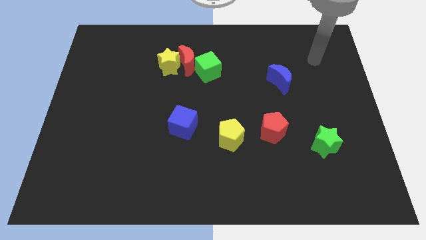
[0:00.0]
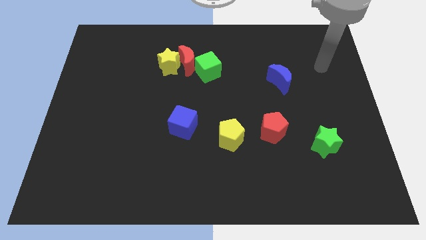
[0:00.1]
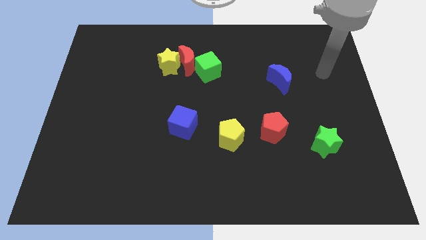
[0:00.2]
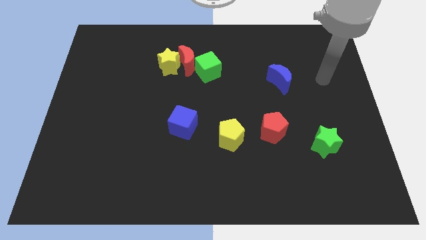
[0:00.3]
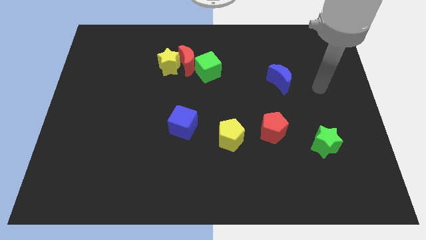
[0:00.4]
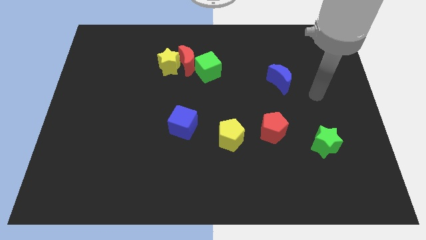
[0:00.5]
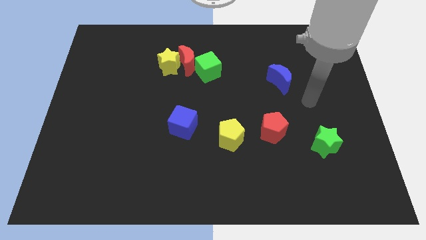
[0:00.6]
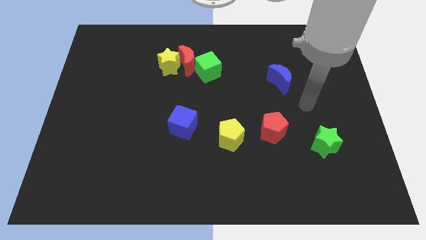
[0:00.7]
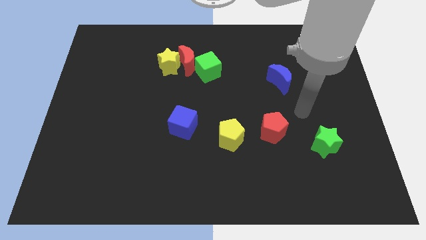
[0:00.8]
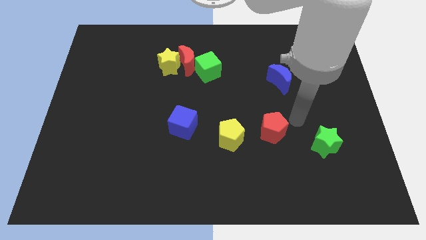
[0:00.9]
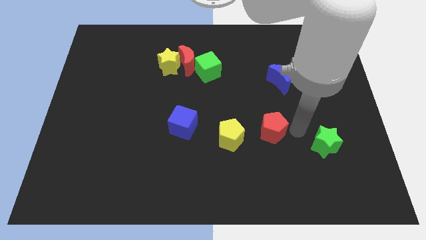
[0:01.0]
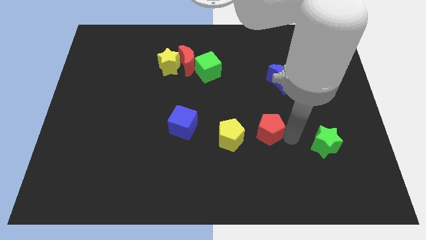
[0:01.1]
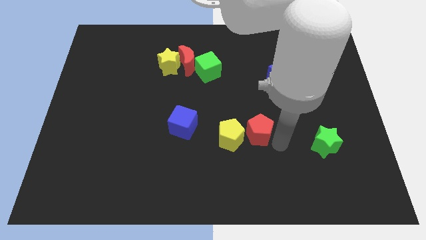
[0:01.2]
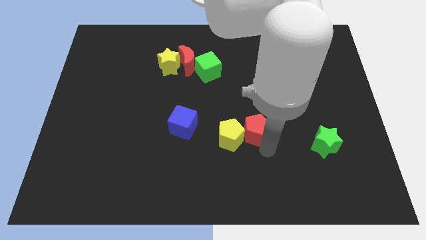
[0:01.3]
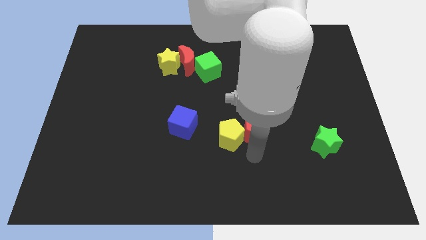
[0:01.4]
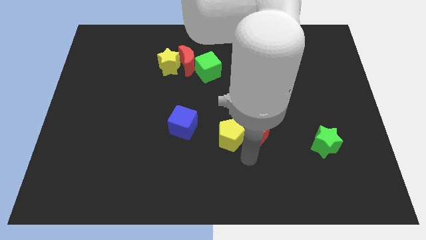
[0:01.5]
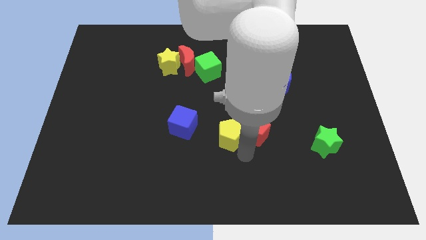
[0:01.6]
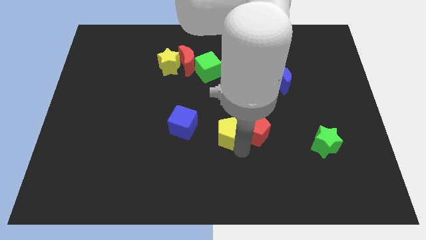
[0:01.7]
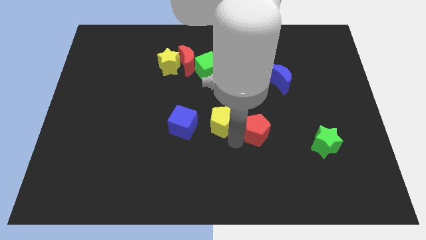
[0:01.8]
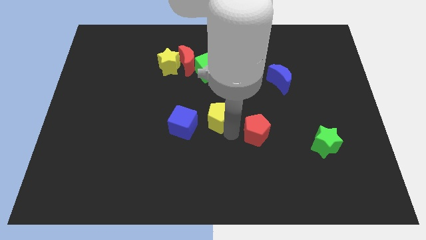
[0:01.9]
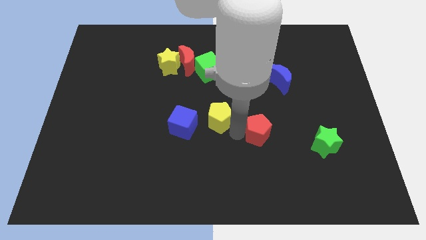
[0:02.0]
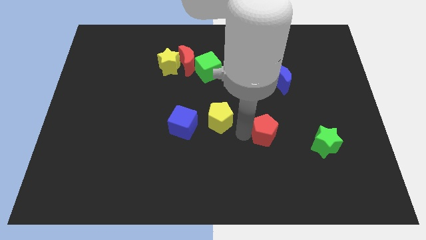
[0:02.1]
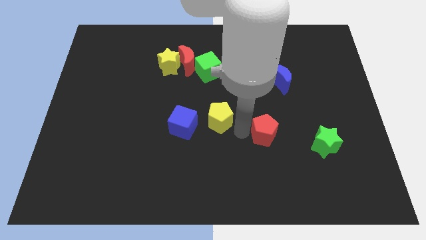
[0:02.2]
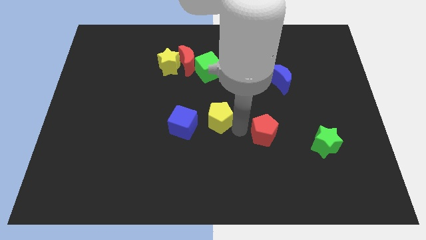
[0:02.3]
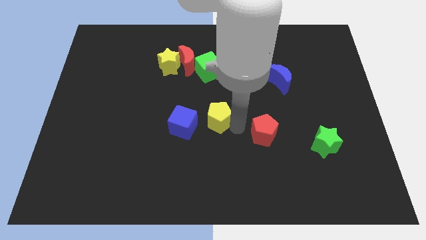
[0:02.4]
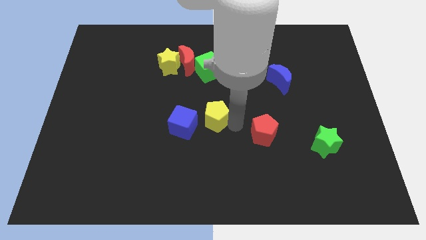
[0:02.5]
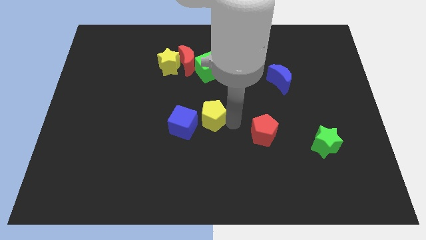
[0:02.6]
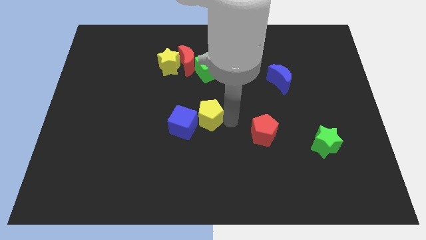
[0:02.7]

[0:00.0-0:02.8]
push the yellow pentagon diagonally up and left slightly

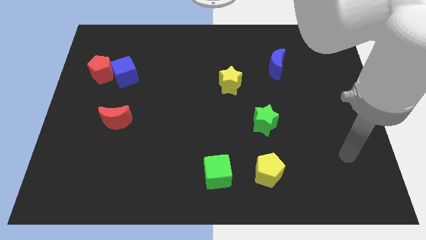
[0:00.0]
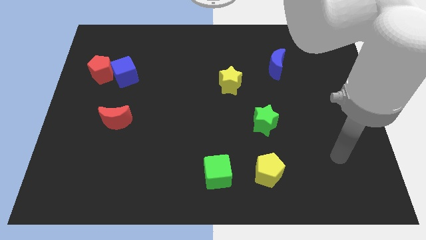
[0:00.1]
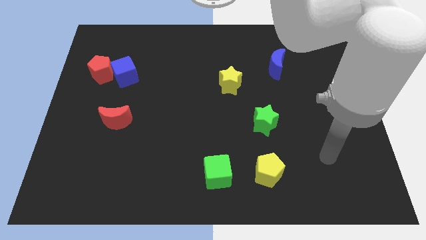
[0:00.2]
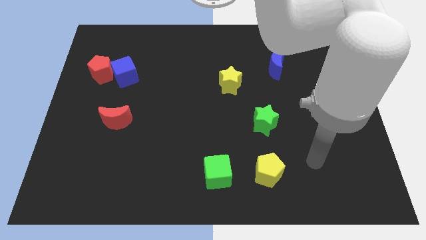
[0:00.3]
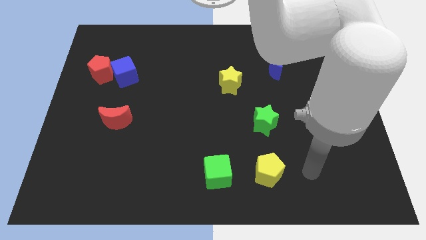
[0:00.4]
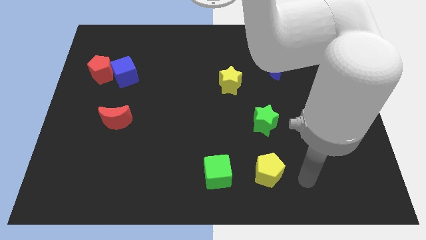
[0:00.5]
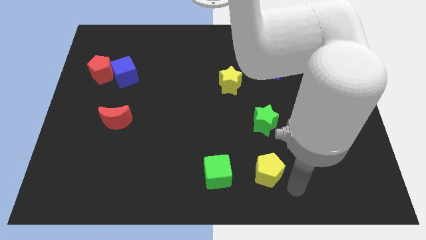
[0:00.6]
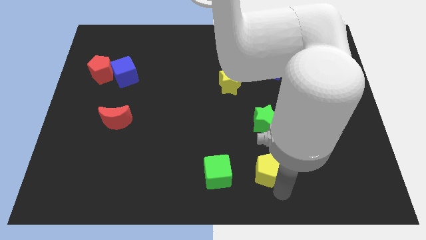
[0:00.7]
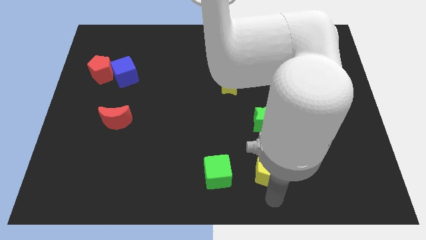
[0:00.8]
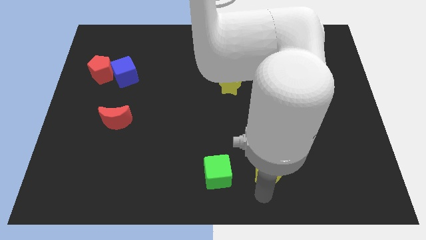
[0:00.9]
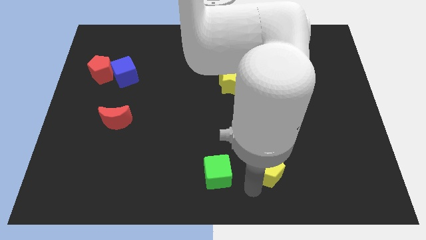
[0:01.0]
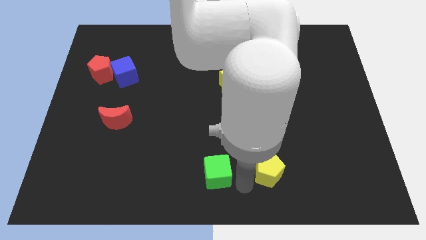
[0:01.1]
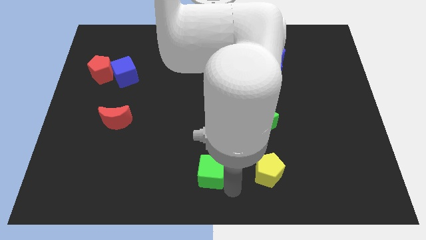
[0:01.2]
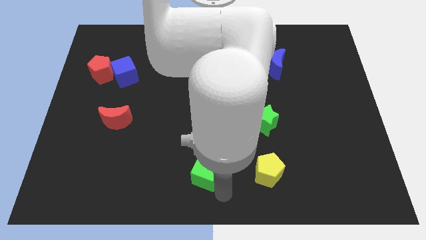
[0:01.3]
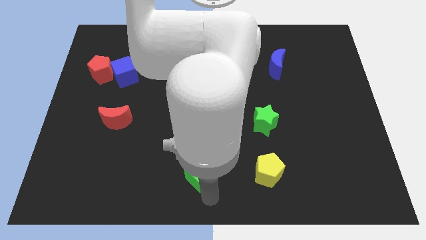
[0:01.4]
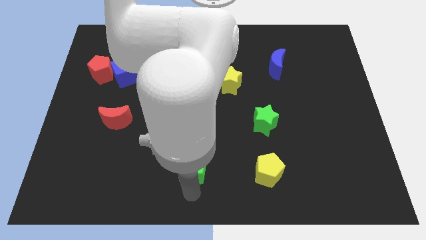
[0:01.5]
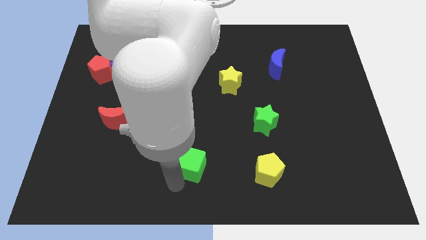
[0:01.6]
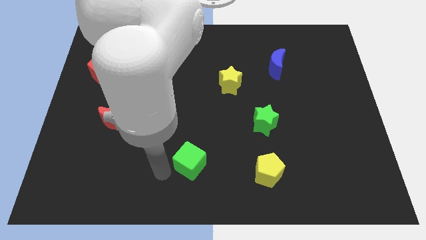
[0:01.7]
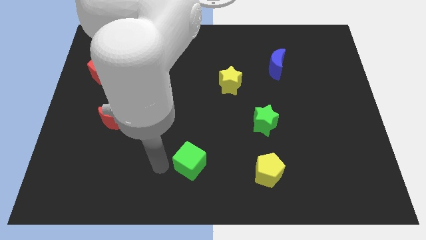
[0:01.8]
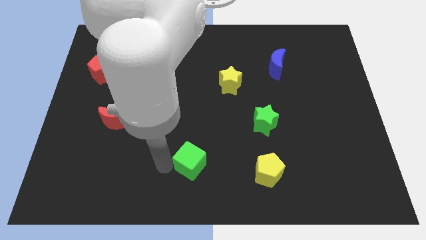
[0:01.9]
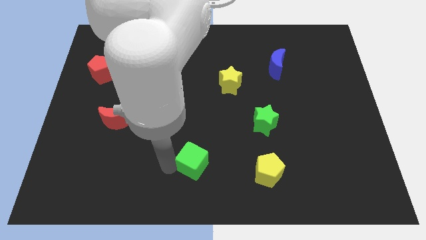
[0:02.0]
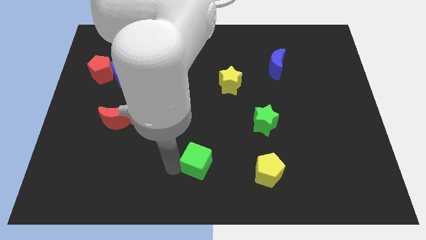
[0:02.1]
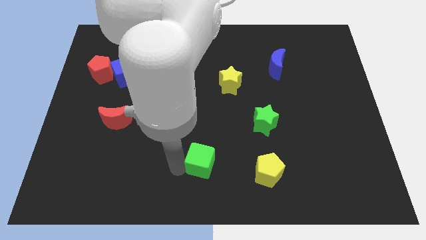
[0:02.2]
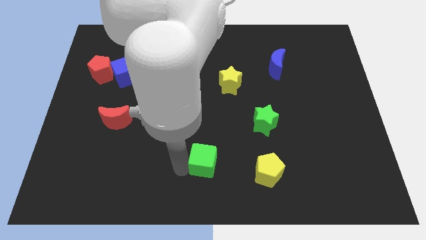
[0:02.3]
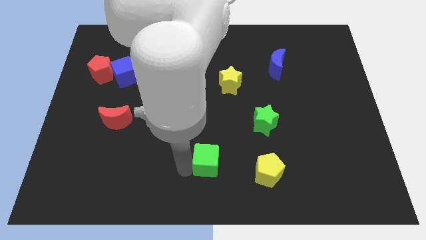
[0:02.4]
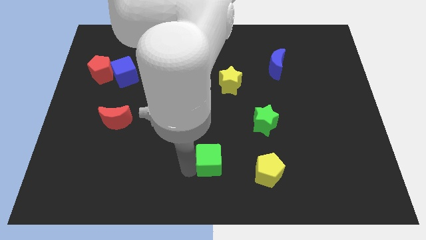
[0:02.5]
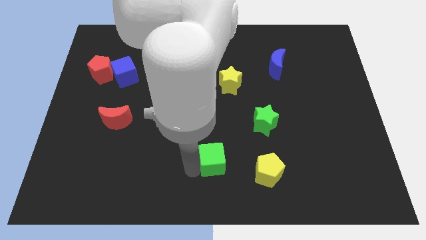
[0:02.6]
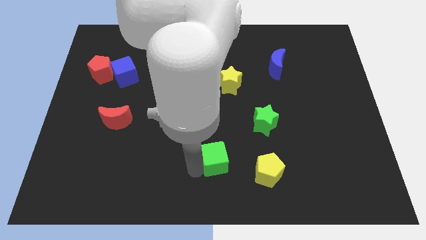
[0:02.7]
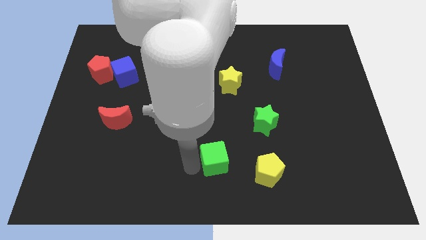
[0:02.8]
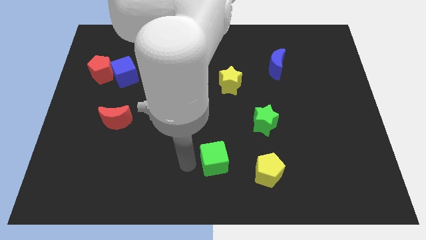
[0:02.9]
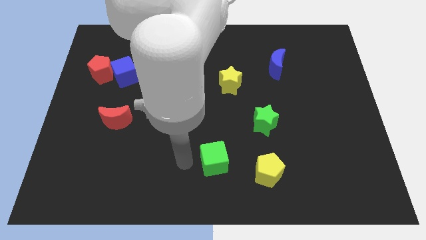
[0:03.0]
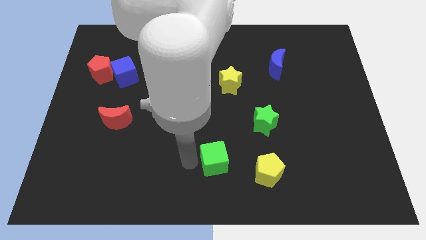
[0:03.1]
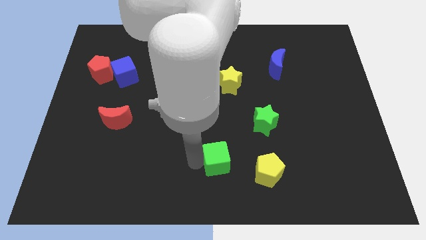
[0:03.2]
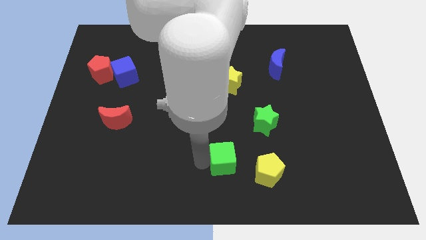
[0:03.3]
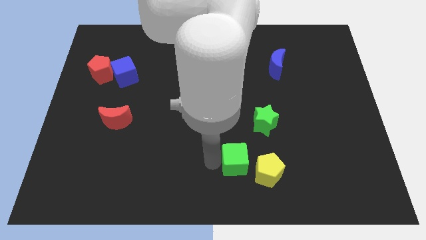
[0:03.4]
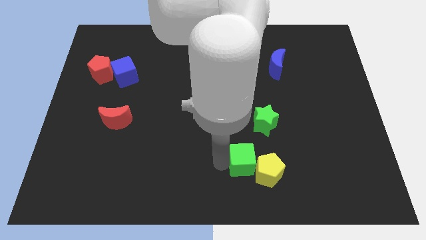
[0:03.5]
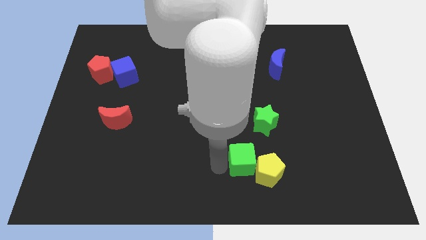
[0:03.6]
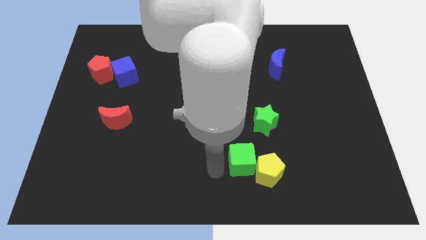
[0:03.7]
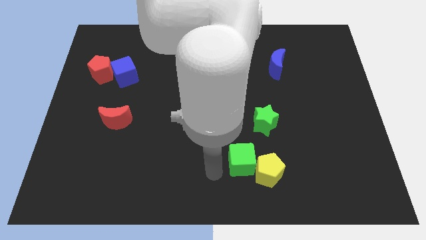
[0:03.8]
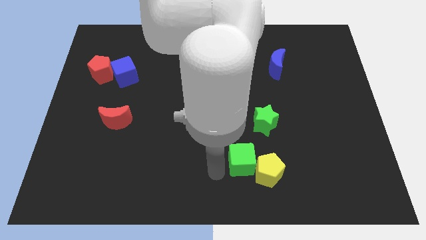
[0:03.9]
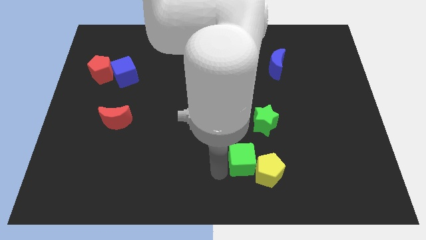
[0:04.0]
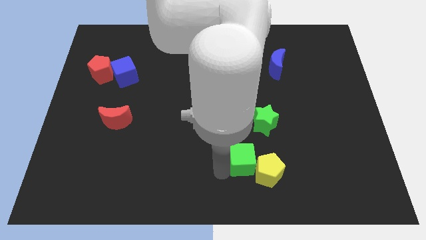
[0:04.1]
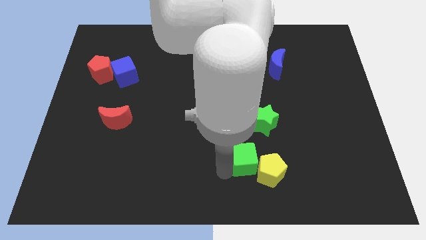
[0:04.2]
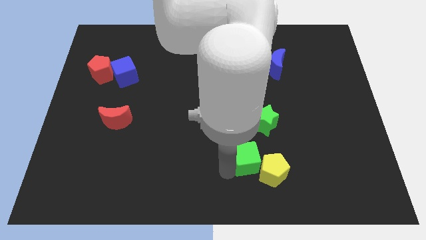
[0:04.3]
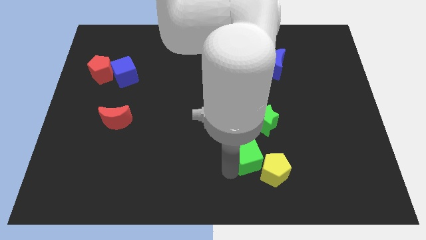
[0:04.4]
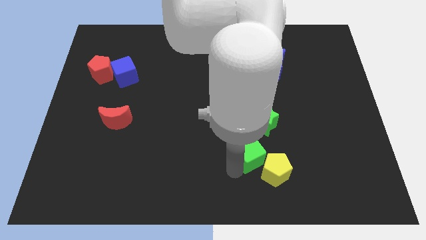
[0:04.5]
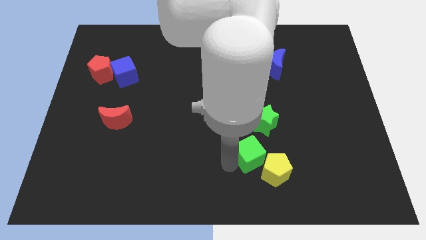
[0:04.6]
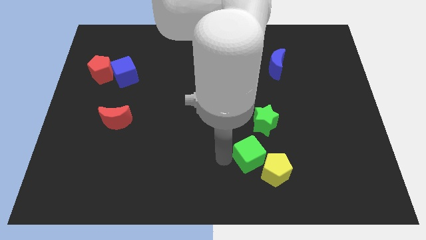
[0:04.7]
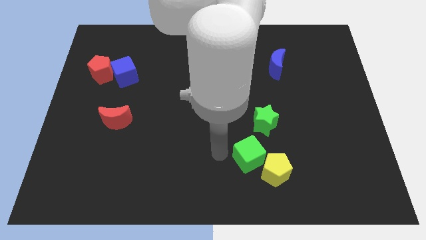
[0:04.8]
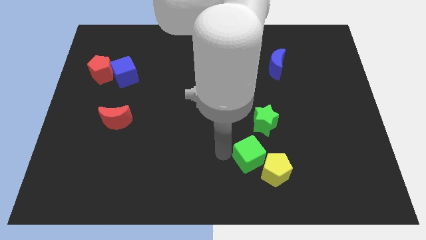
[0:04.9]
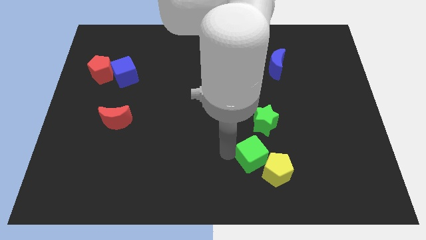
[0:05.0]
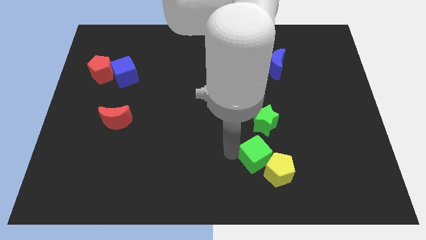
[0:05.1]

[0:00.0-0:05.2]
slide the green cube to the right a bit

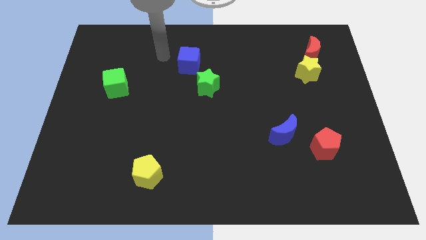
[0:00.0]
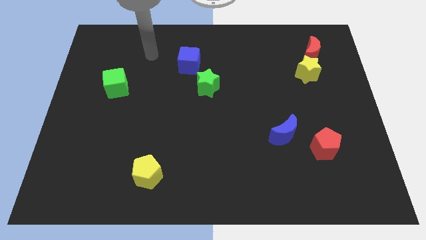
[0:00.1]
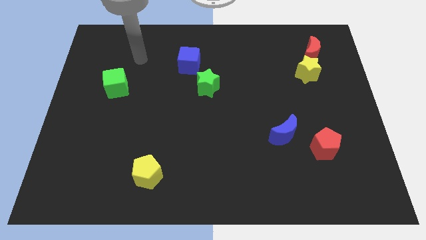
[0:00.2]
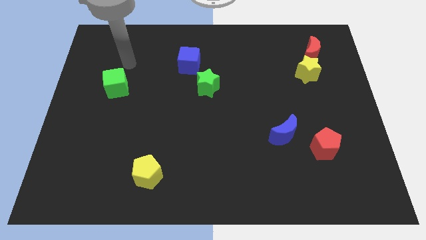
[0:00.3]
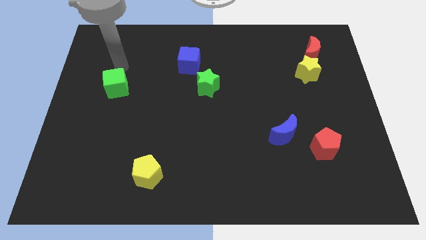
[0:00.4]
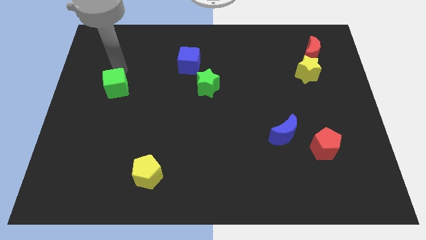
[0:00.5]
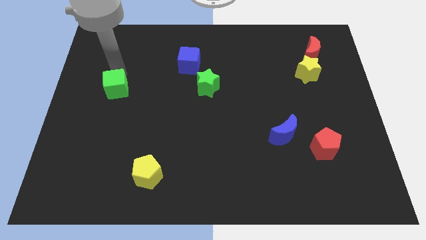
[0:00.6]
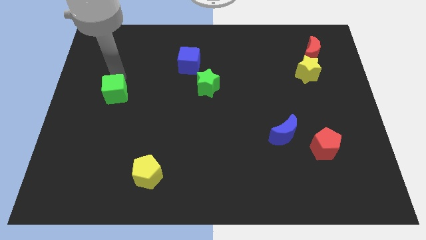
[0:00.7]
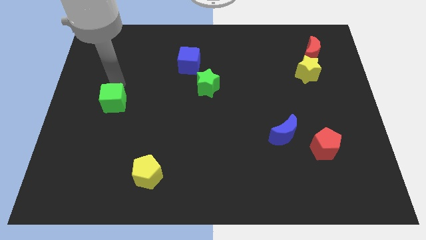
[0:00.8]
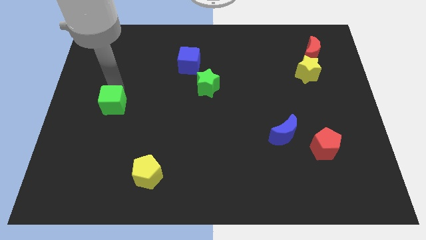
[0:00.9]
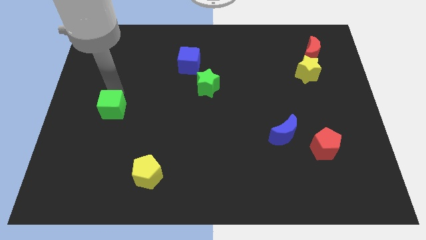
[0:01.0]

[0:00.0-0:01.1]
push the green cube down somewhat
